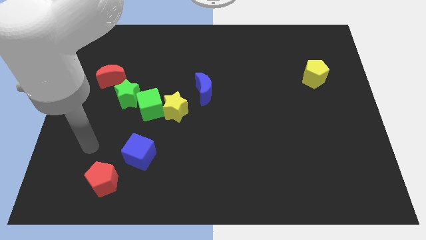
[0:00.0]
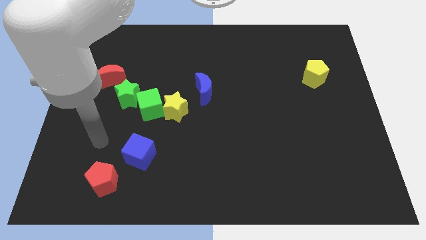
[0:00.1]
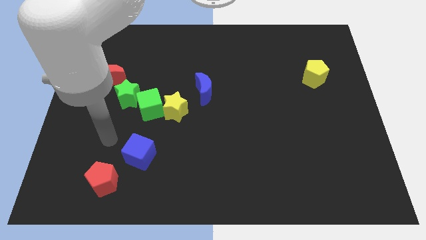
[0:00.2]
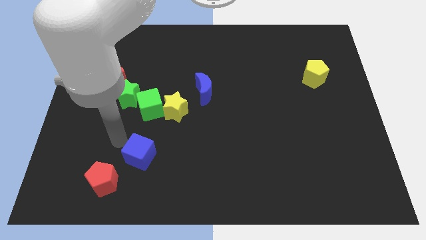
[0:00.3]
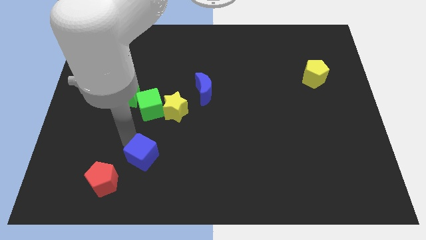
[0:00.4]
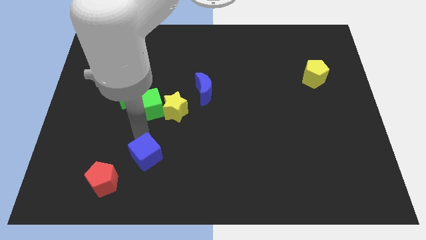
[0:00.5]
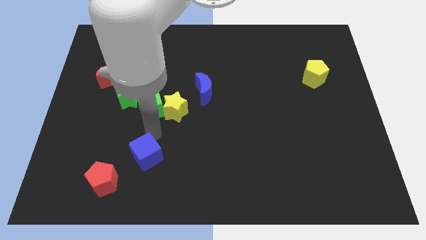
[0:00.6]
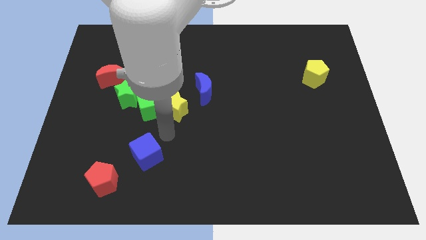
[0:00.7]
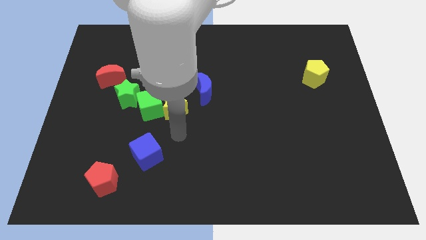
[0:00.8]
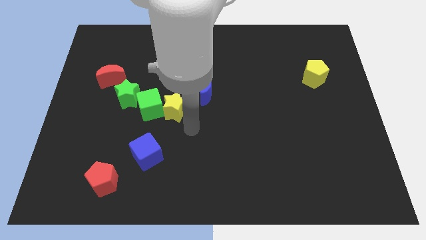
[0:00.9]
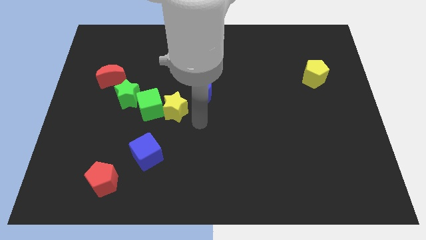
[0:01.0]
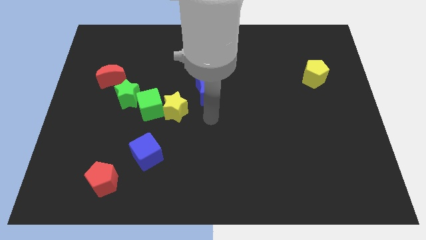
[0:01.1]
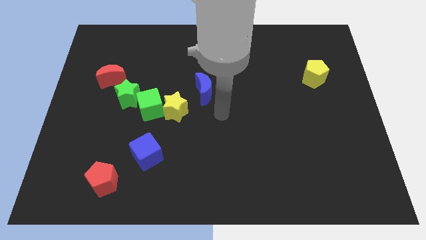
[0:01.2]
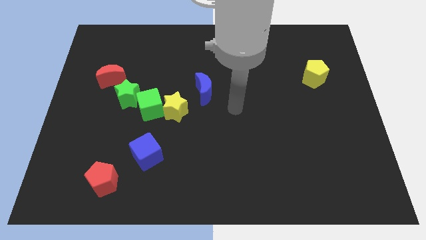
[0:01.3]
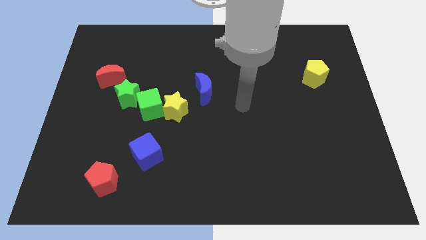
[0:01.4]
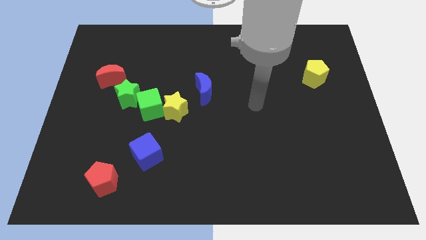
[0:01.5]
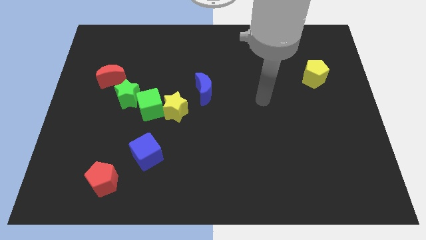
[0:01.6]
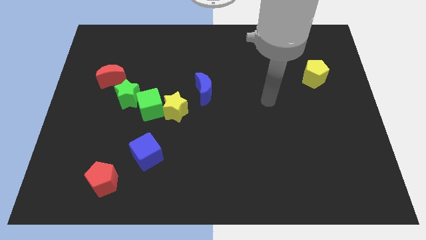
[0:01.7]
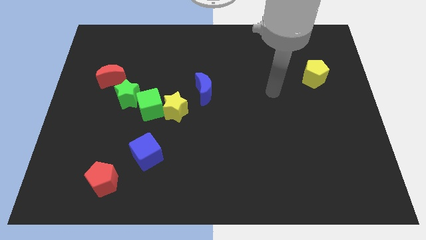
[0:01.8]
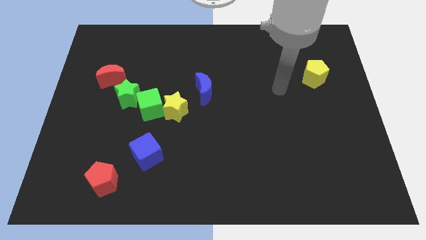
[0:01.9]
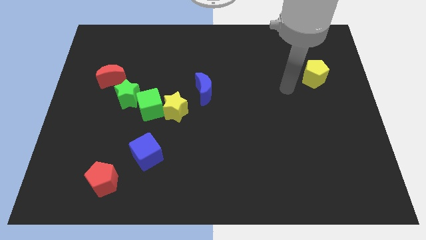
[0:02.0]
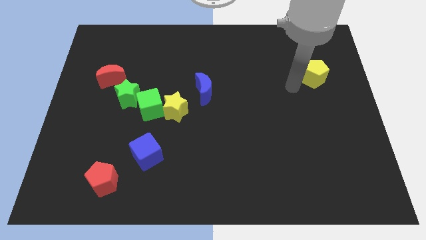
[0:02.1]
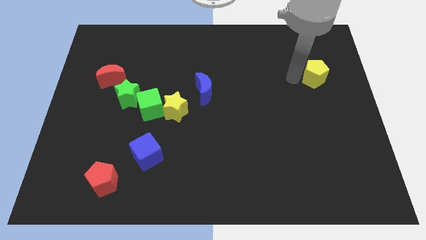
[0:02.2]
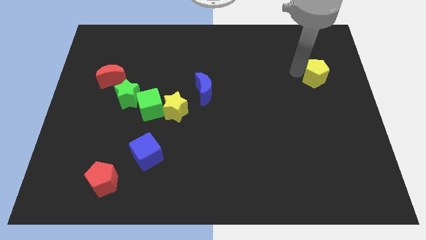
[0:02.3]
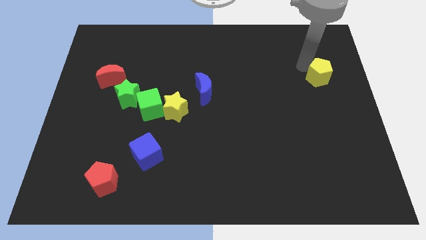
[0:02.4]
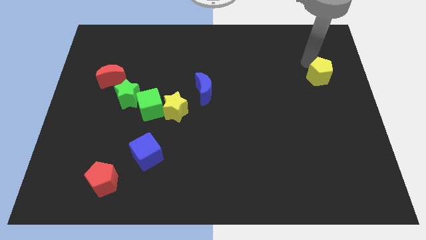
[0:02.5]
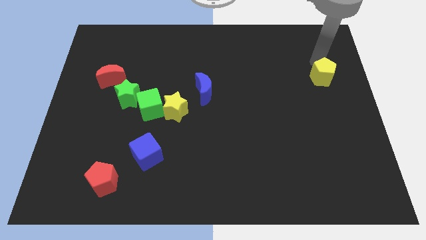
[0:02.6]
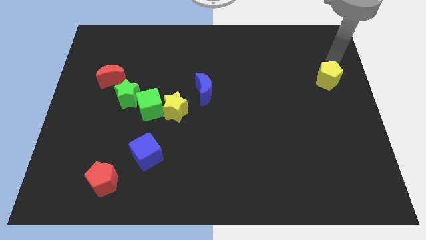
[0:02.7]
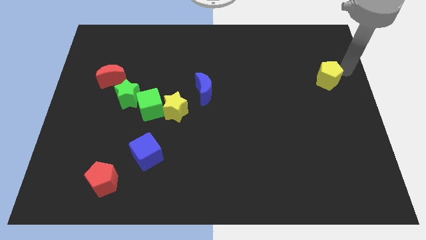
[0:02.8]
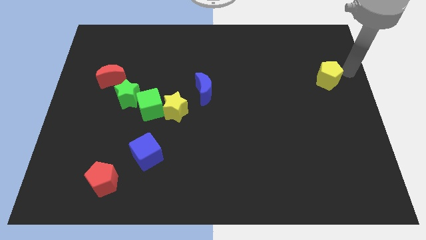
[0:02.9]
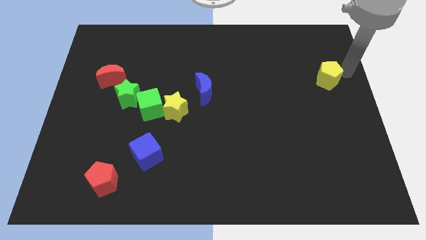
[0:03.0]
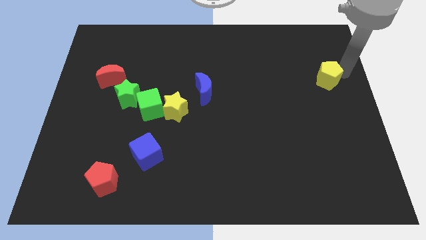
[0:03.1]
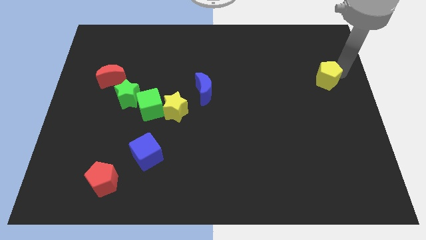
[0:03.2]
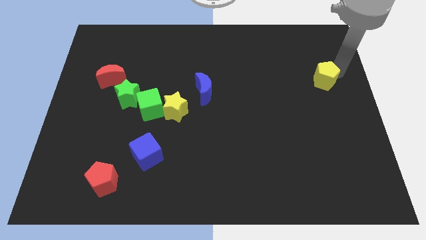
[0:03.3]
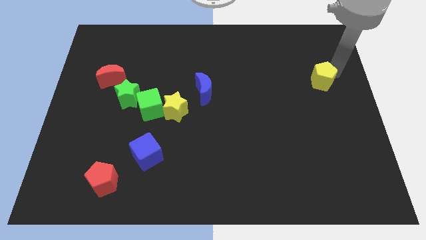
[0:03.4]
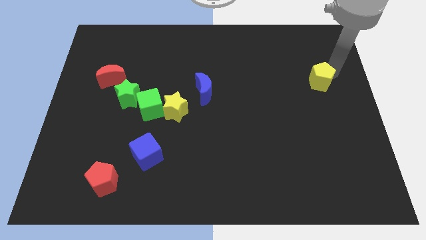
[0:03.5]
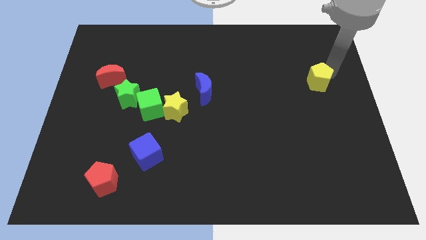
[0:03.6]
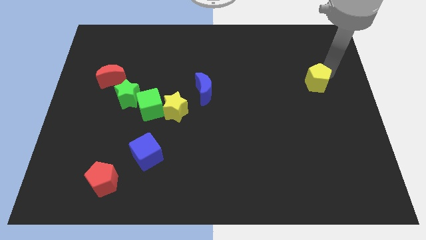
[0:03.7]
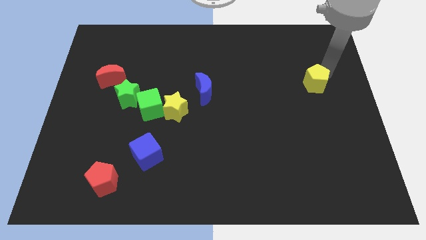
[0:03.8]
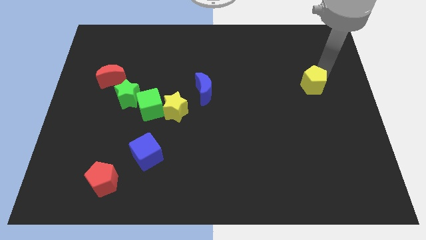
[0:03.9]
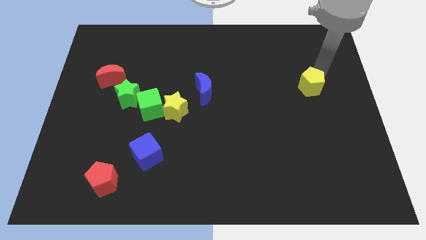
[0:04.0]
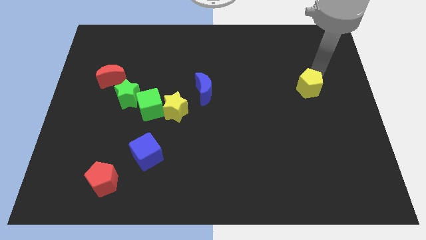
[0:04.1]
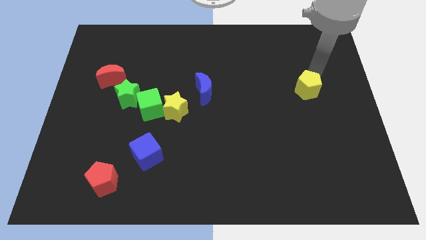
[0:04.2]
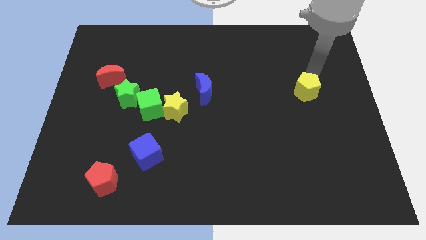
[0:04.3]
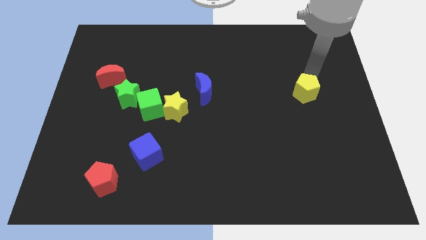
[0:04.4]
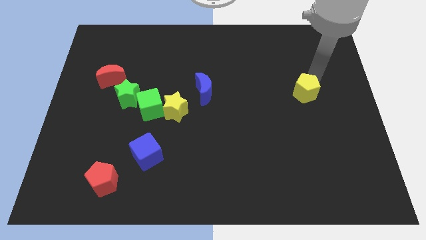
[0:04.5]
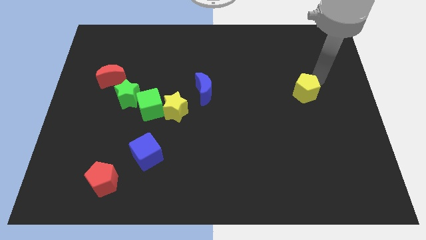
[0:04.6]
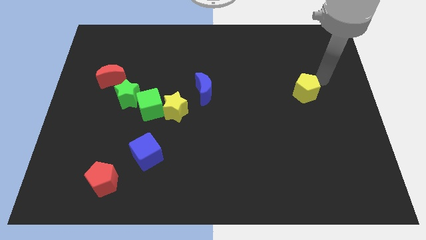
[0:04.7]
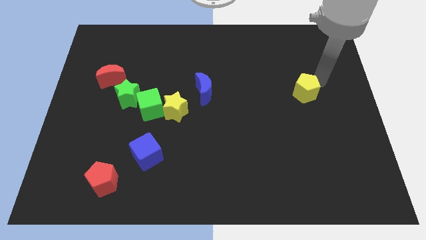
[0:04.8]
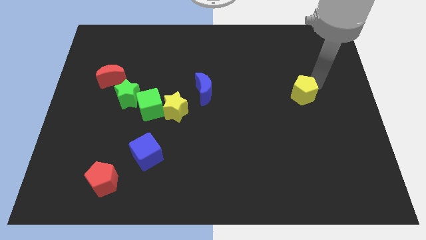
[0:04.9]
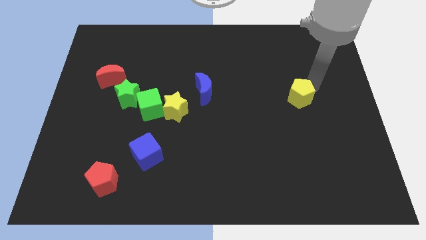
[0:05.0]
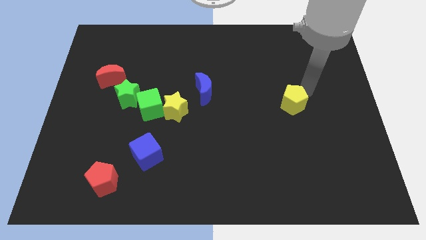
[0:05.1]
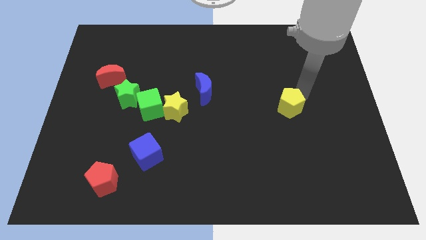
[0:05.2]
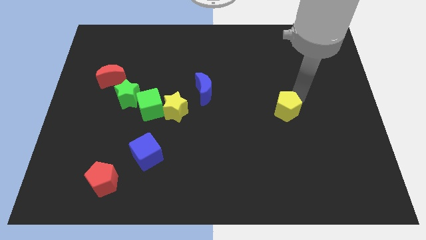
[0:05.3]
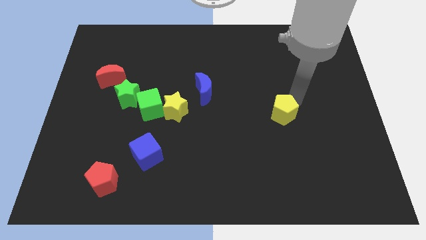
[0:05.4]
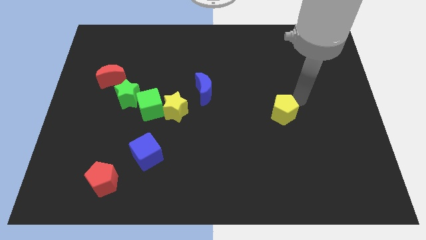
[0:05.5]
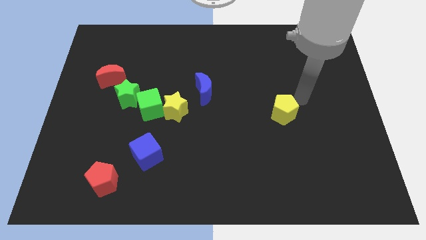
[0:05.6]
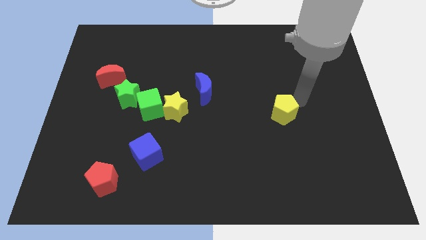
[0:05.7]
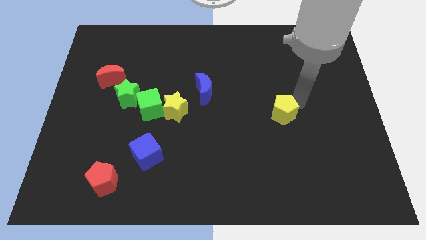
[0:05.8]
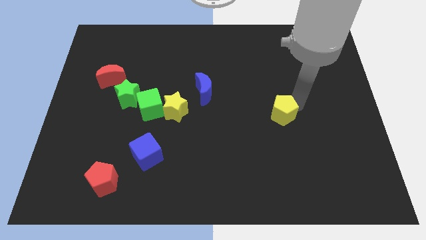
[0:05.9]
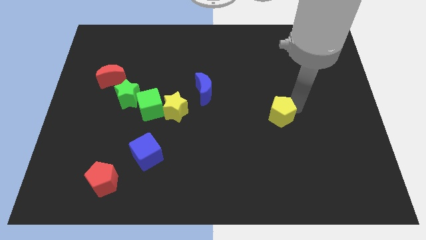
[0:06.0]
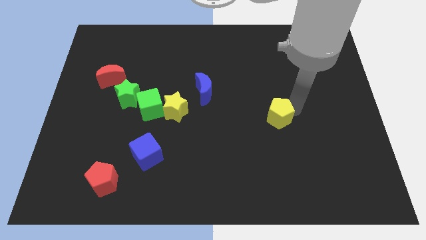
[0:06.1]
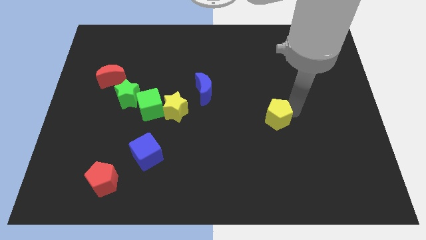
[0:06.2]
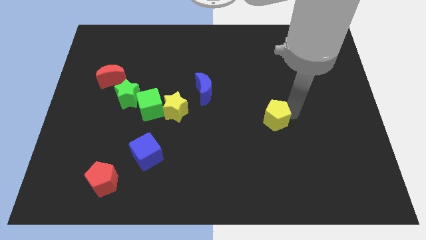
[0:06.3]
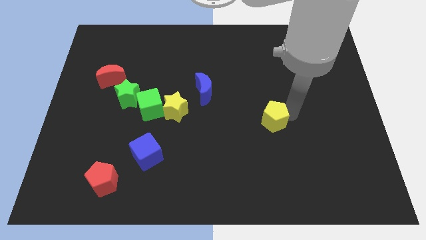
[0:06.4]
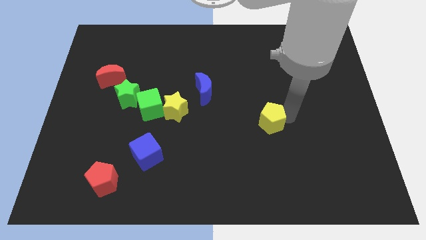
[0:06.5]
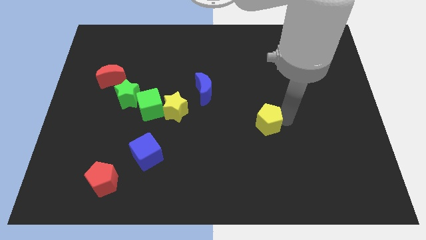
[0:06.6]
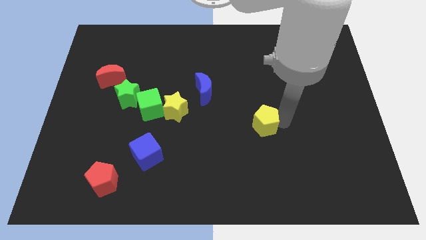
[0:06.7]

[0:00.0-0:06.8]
push the yellow pentagon downwards and to the left

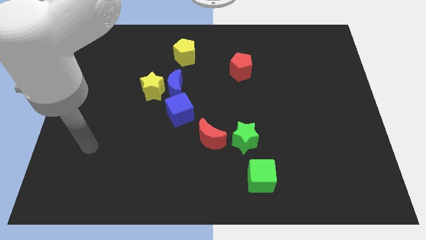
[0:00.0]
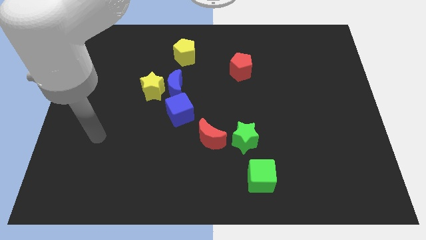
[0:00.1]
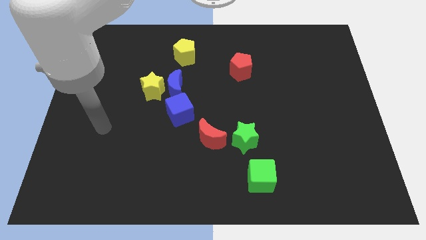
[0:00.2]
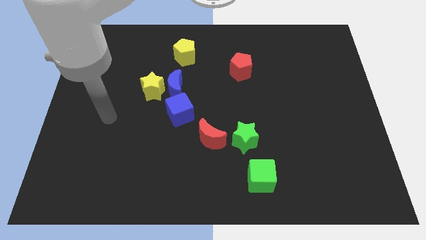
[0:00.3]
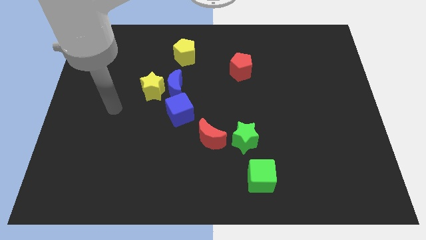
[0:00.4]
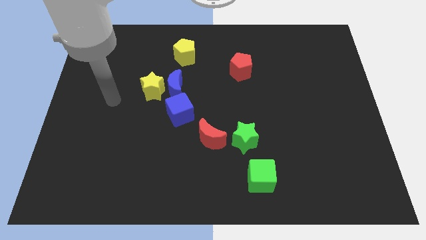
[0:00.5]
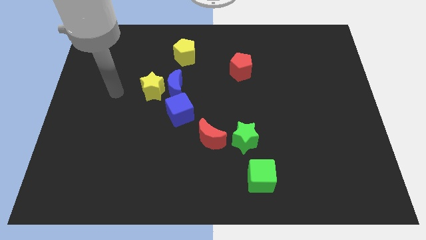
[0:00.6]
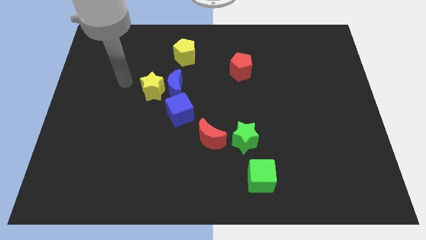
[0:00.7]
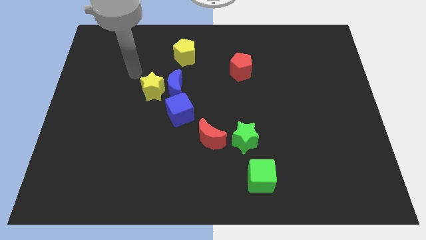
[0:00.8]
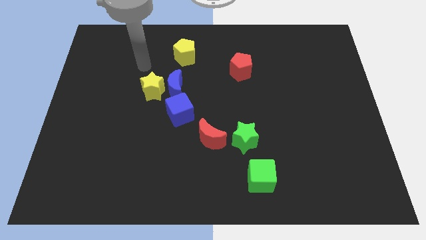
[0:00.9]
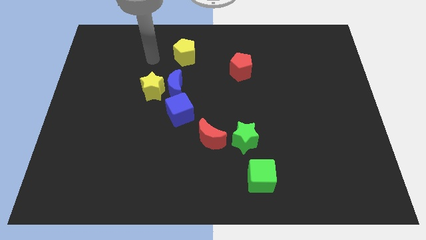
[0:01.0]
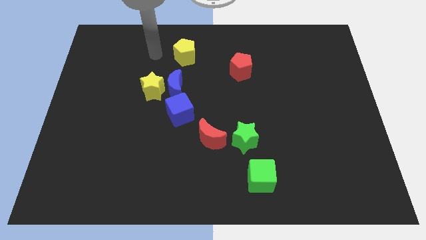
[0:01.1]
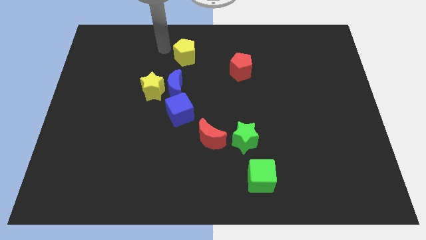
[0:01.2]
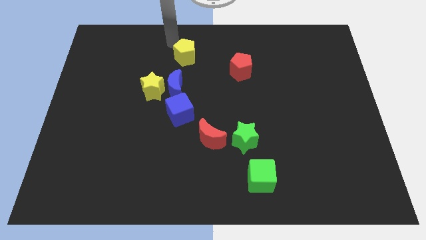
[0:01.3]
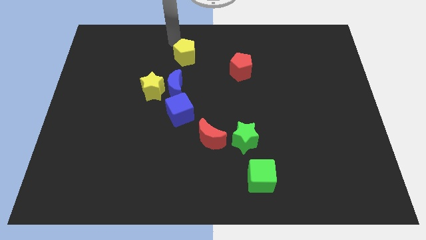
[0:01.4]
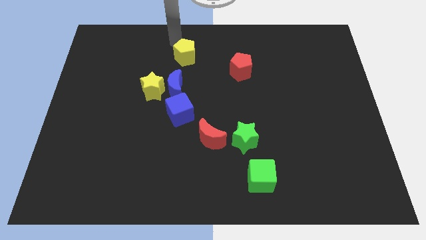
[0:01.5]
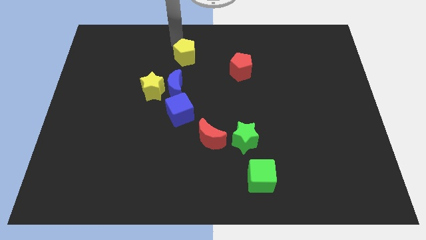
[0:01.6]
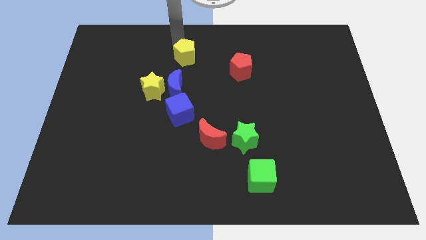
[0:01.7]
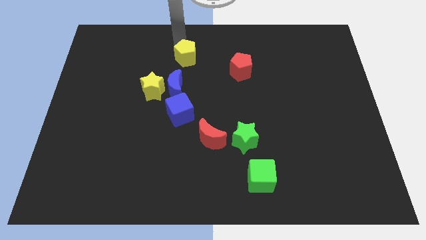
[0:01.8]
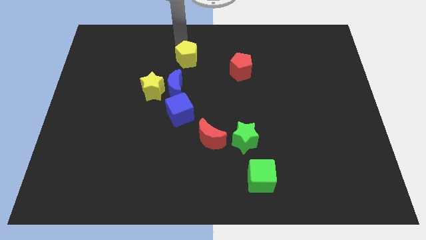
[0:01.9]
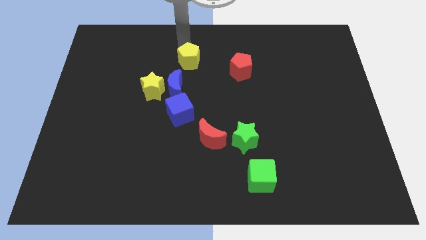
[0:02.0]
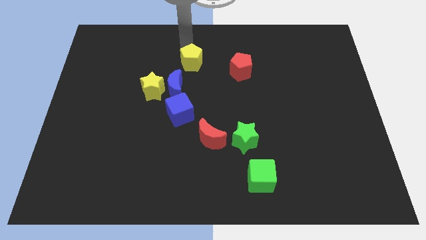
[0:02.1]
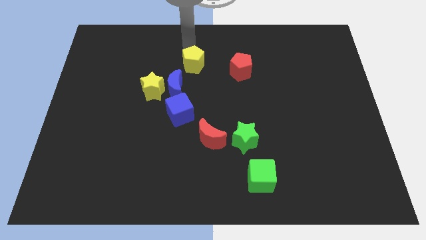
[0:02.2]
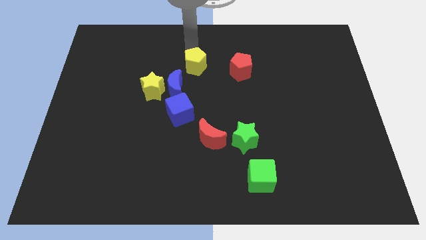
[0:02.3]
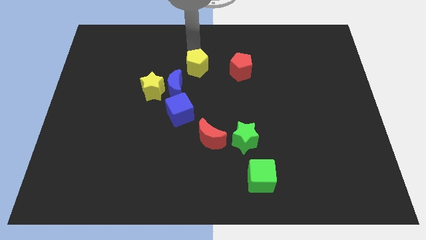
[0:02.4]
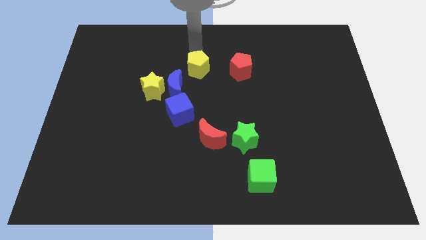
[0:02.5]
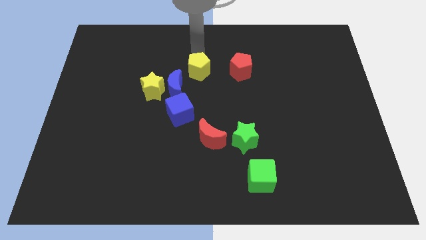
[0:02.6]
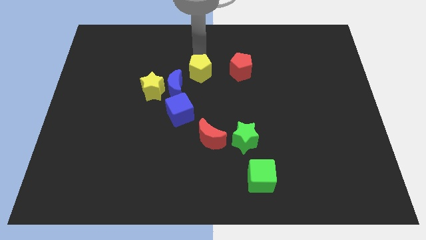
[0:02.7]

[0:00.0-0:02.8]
move the yellow pentagon slightly downwards and then to the right
